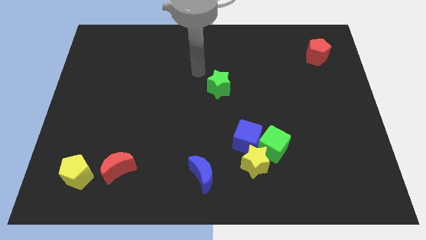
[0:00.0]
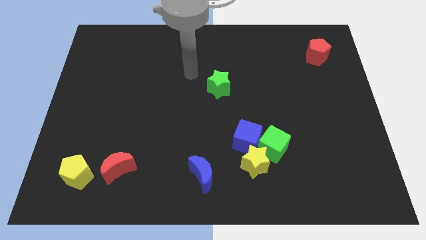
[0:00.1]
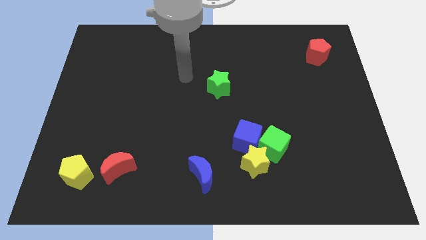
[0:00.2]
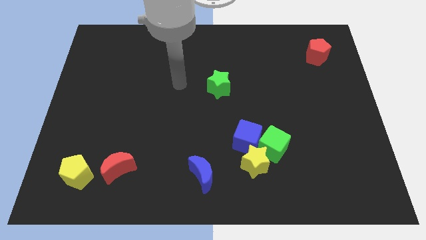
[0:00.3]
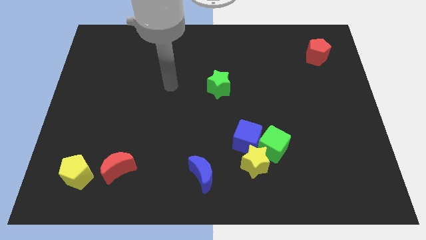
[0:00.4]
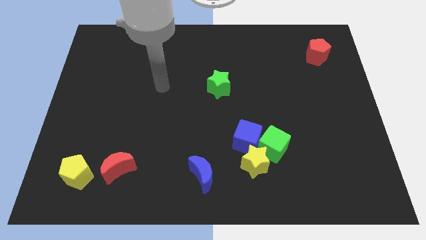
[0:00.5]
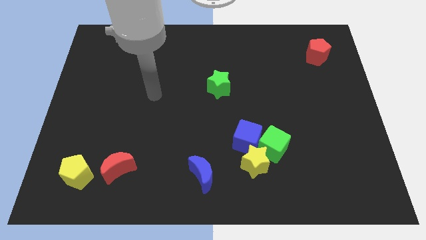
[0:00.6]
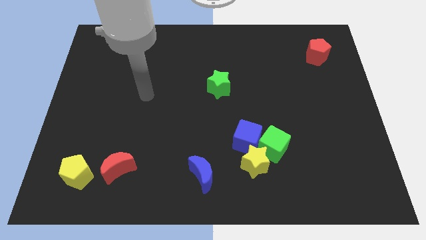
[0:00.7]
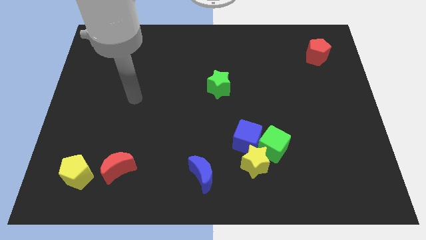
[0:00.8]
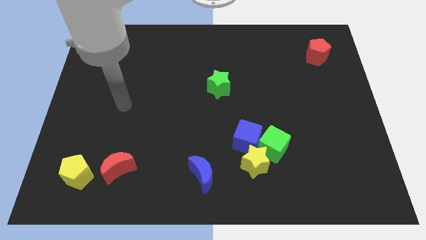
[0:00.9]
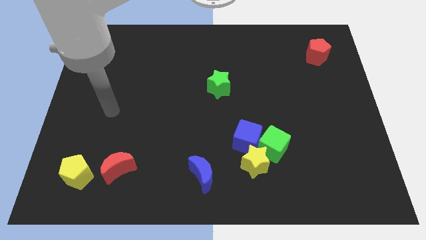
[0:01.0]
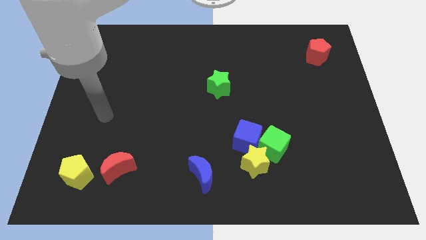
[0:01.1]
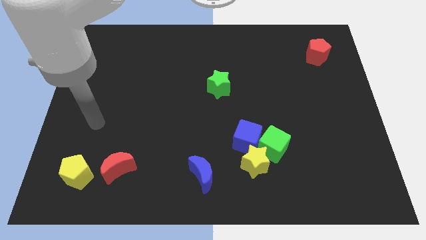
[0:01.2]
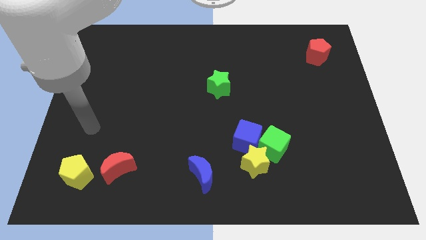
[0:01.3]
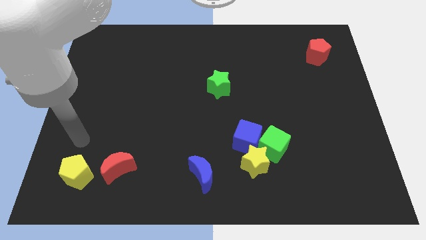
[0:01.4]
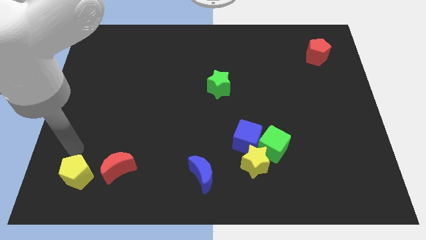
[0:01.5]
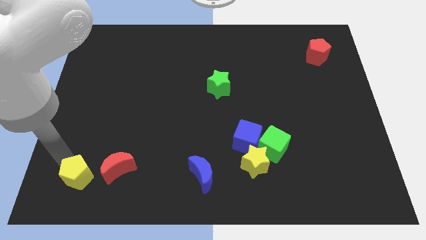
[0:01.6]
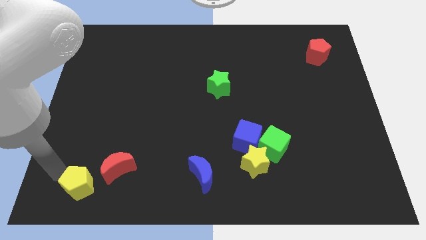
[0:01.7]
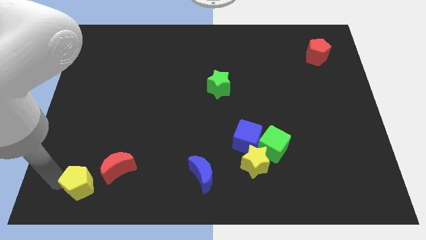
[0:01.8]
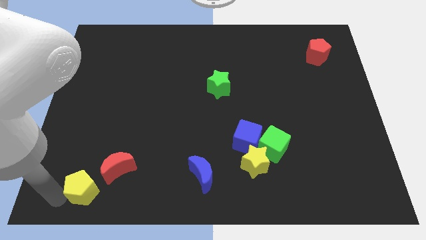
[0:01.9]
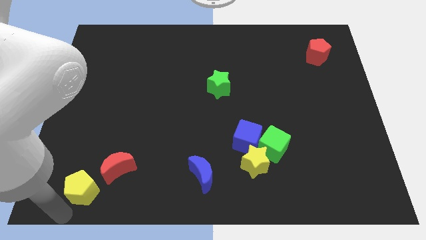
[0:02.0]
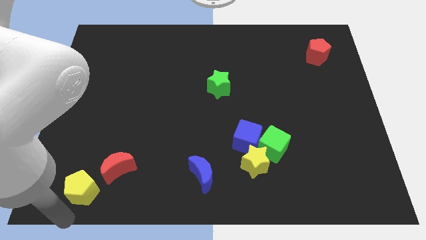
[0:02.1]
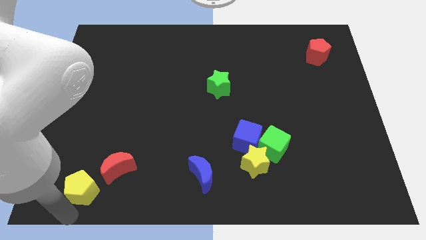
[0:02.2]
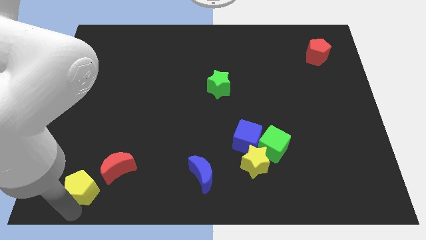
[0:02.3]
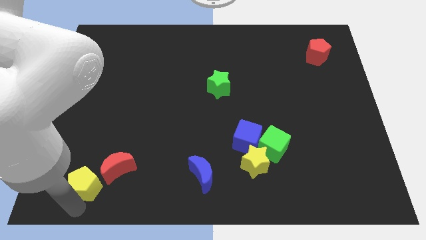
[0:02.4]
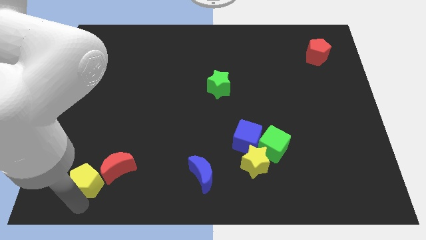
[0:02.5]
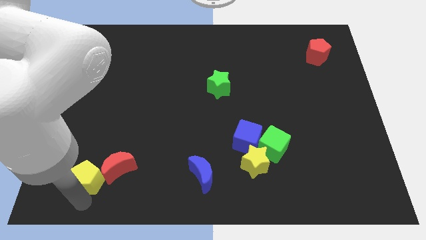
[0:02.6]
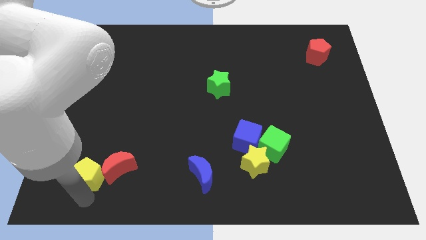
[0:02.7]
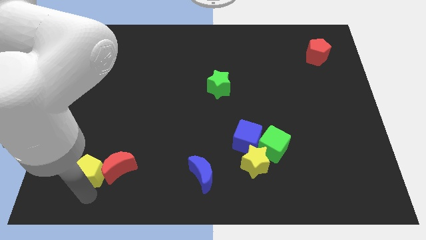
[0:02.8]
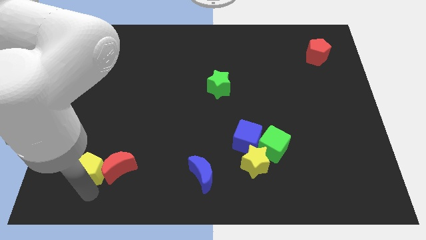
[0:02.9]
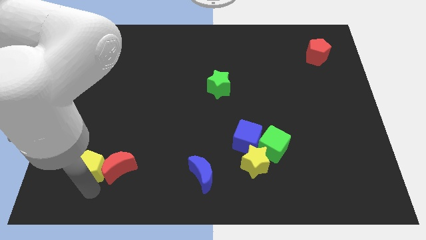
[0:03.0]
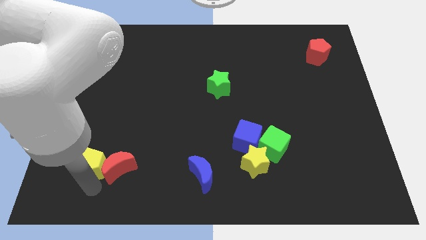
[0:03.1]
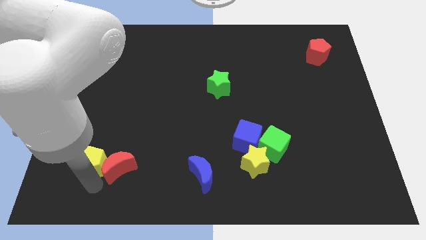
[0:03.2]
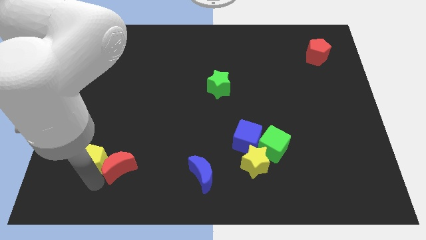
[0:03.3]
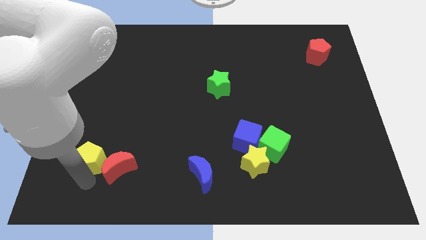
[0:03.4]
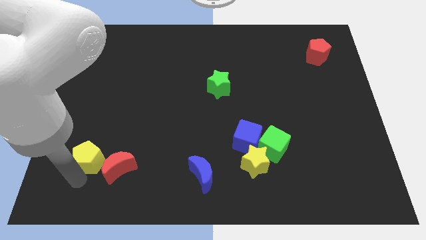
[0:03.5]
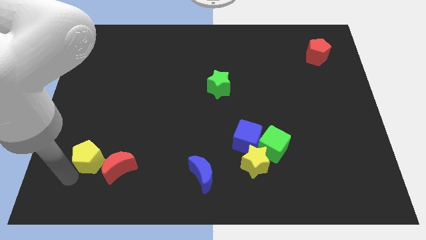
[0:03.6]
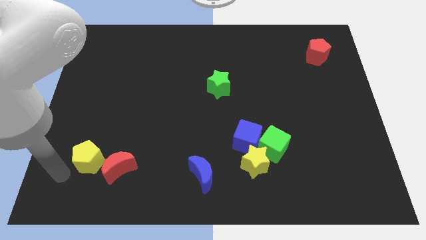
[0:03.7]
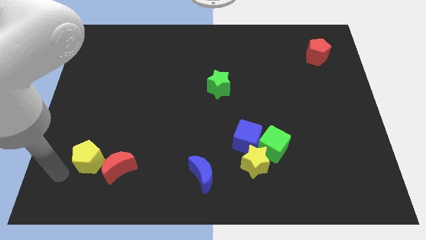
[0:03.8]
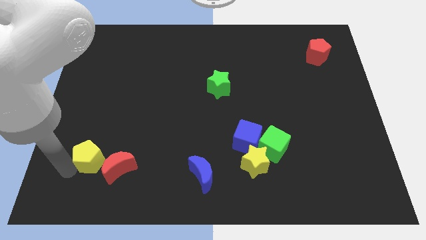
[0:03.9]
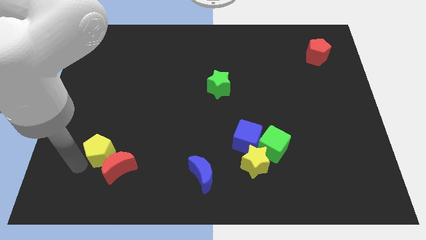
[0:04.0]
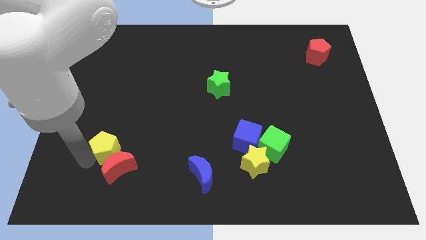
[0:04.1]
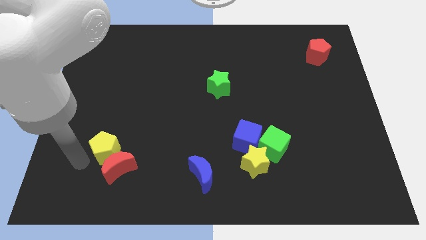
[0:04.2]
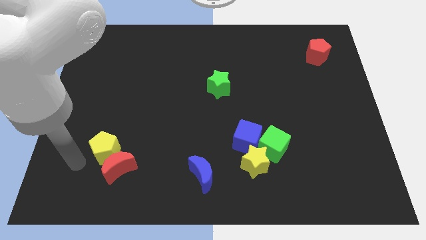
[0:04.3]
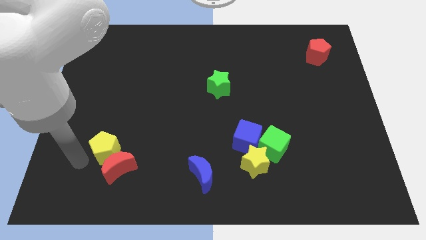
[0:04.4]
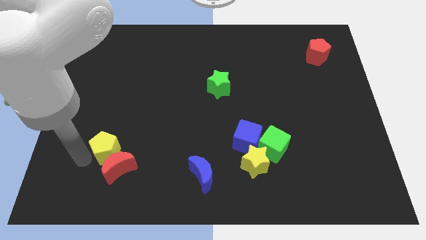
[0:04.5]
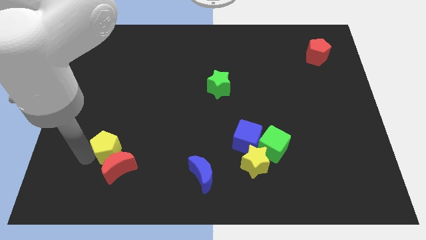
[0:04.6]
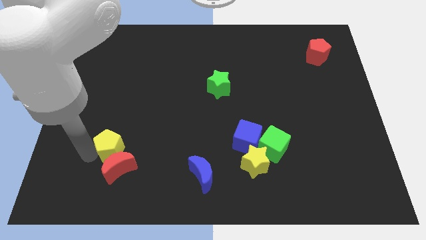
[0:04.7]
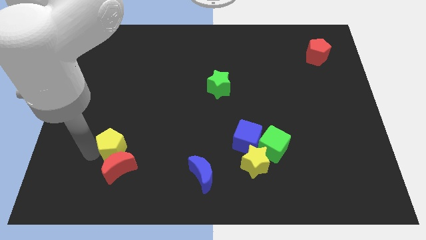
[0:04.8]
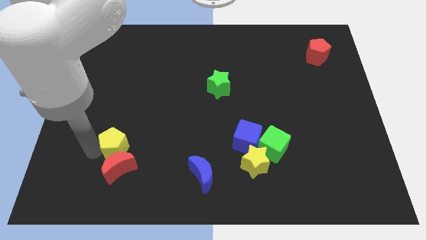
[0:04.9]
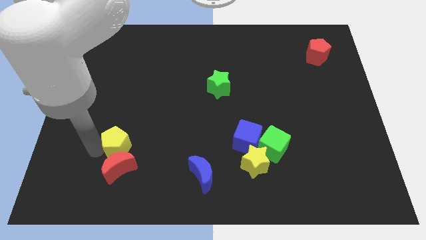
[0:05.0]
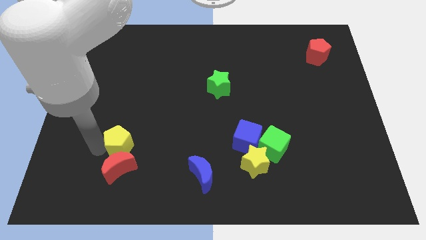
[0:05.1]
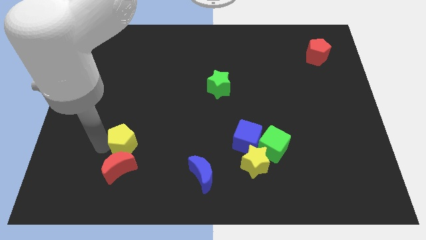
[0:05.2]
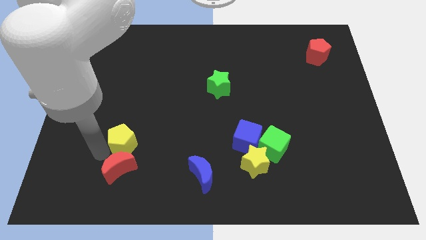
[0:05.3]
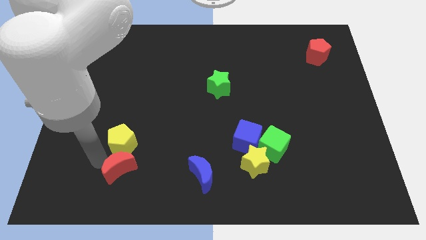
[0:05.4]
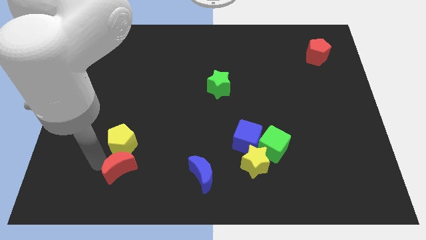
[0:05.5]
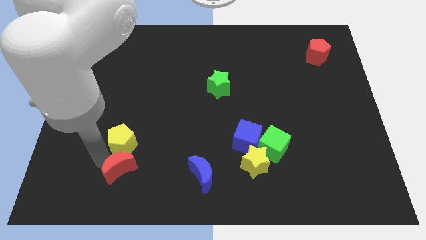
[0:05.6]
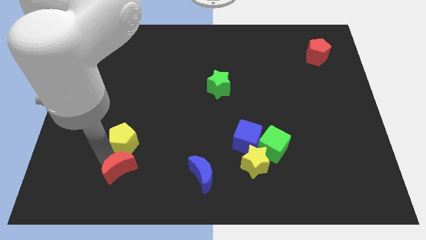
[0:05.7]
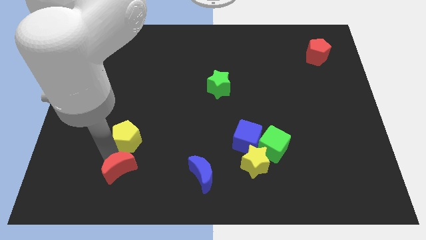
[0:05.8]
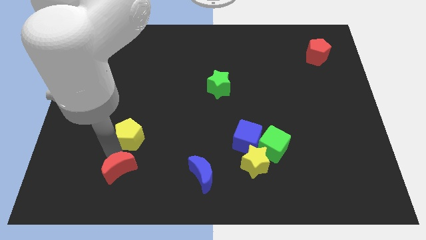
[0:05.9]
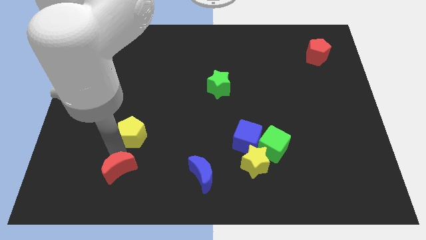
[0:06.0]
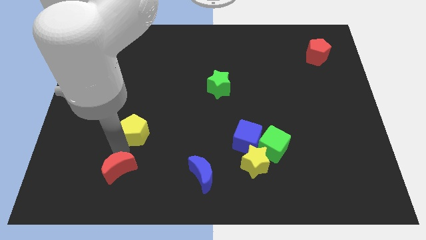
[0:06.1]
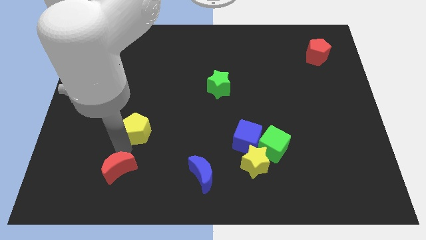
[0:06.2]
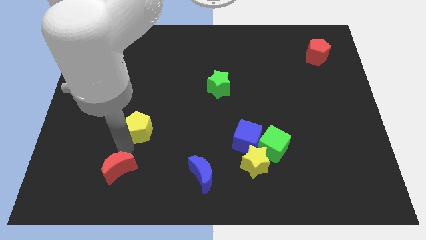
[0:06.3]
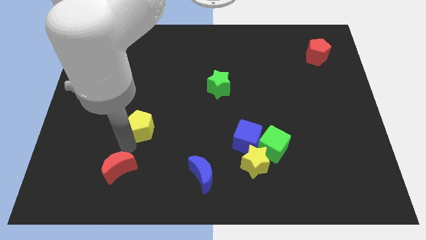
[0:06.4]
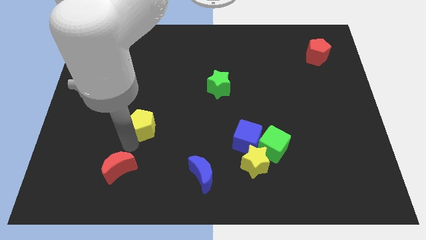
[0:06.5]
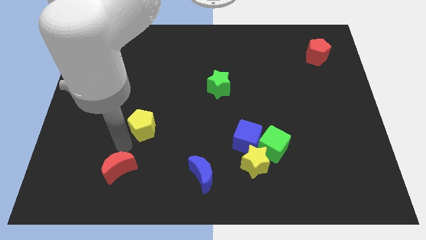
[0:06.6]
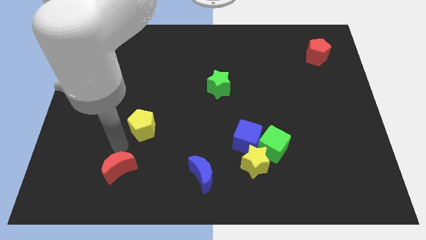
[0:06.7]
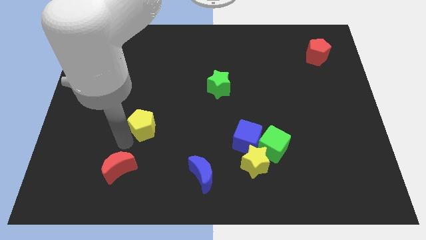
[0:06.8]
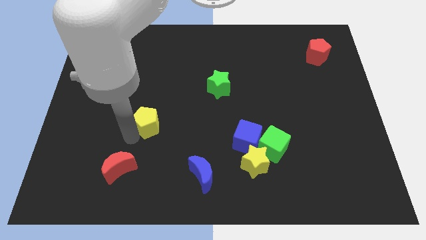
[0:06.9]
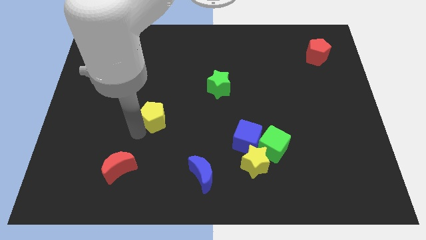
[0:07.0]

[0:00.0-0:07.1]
push the yellow pentagon upwards and right

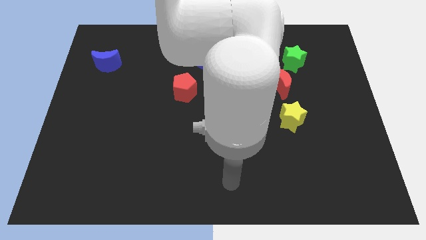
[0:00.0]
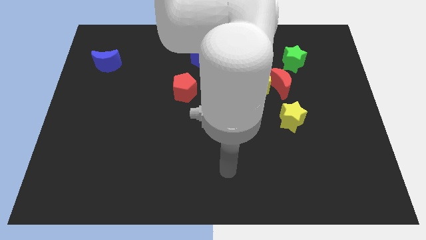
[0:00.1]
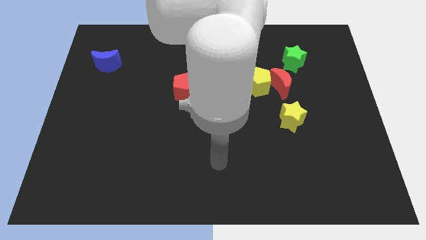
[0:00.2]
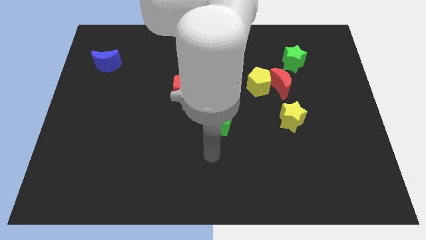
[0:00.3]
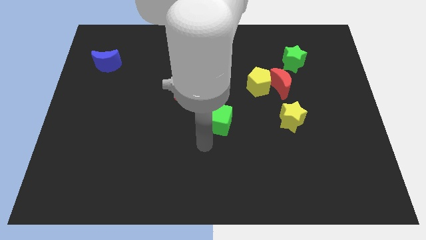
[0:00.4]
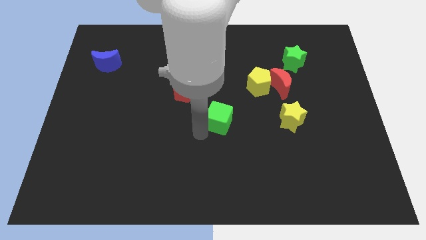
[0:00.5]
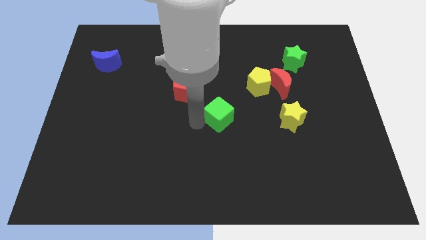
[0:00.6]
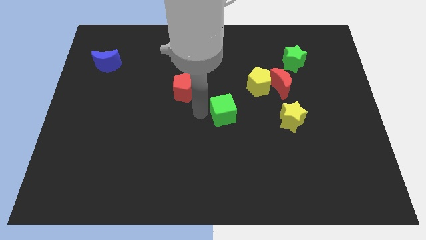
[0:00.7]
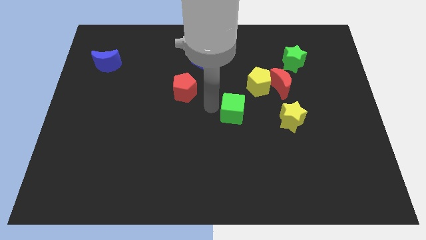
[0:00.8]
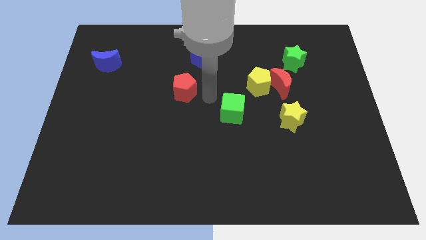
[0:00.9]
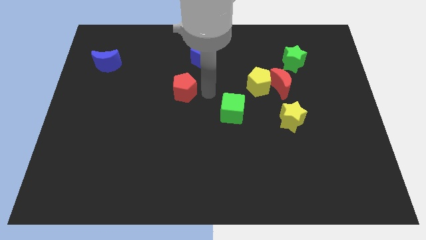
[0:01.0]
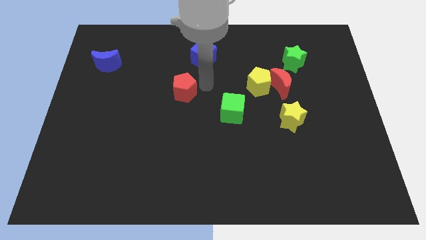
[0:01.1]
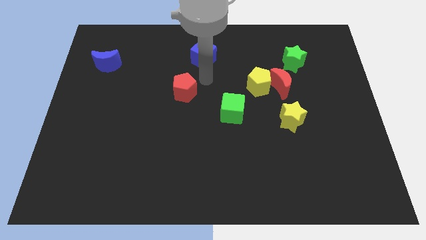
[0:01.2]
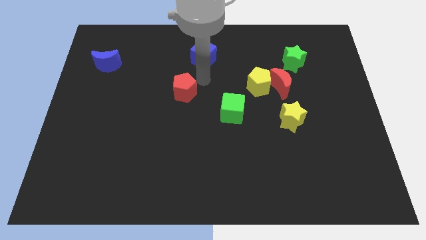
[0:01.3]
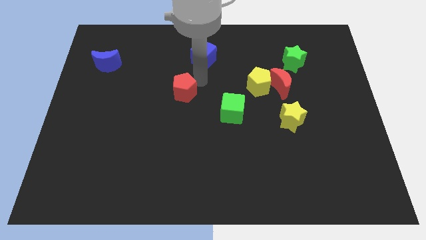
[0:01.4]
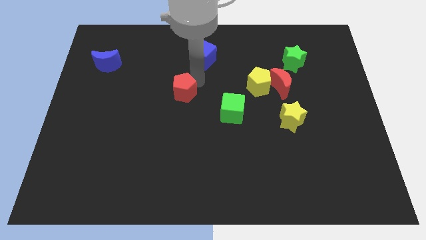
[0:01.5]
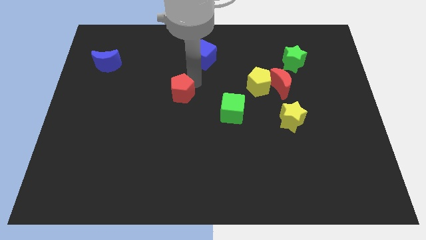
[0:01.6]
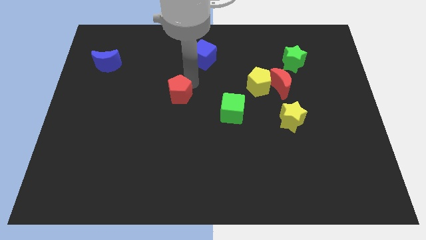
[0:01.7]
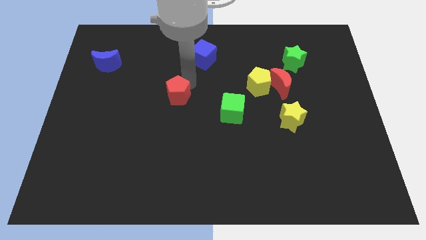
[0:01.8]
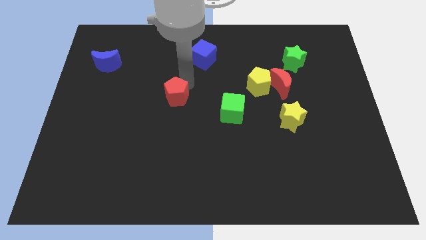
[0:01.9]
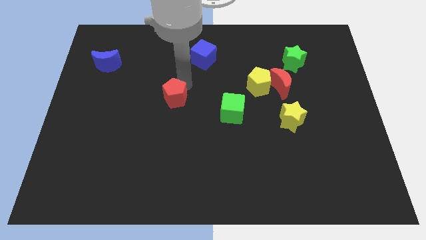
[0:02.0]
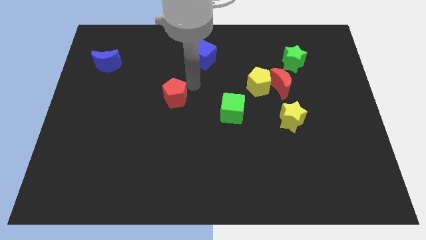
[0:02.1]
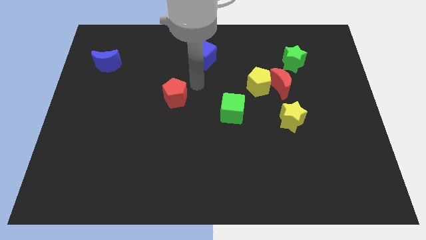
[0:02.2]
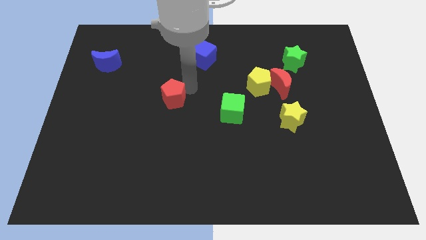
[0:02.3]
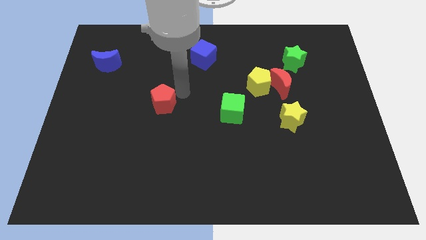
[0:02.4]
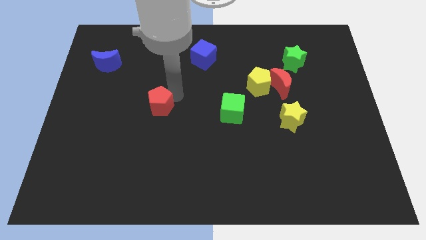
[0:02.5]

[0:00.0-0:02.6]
slightly push the red pentagon downwards and left diagonally
